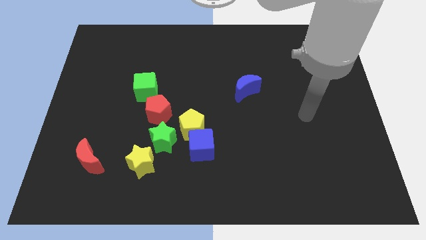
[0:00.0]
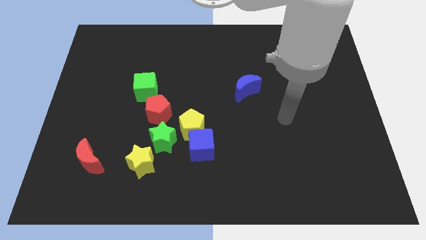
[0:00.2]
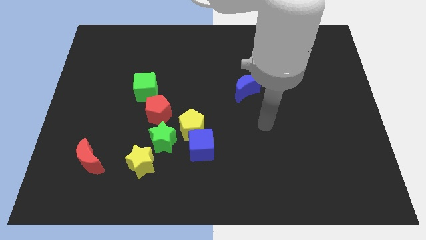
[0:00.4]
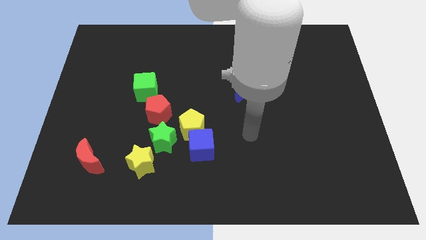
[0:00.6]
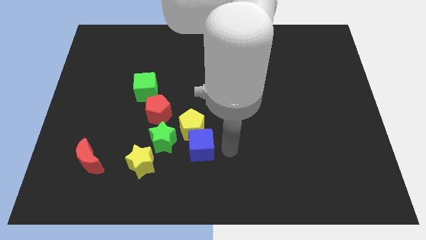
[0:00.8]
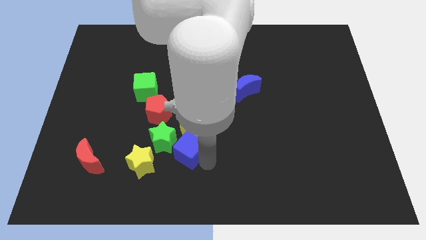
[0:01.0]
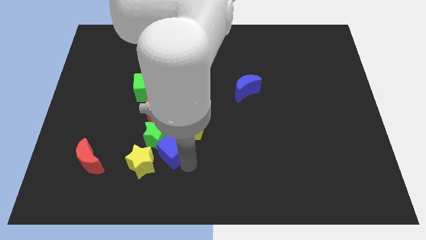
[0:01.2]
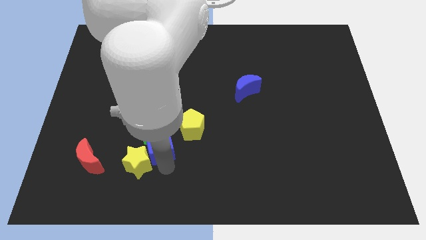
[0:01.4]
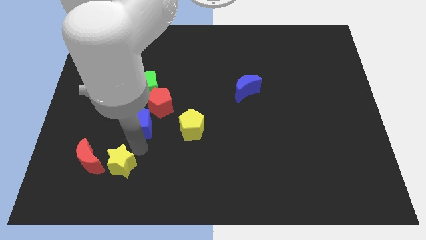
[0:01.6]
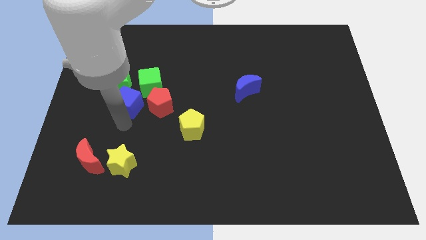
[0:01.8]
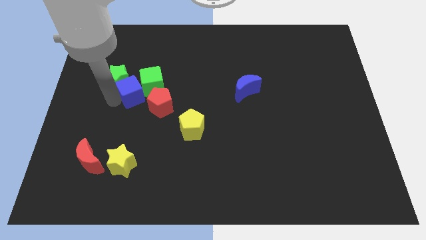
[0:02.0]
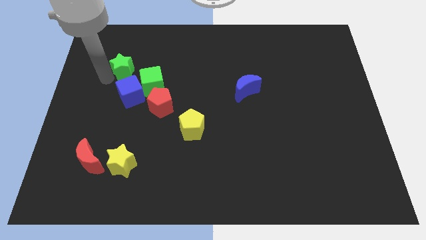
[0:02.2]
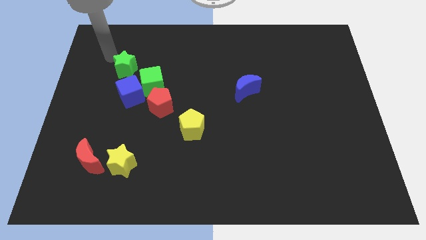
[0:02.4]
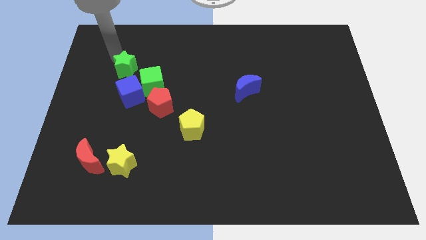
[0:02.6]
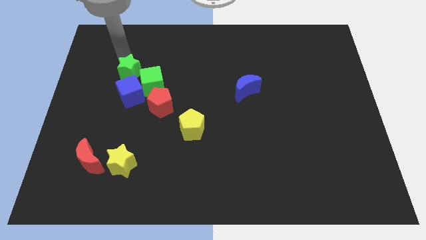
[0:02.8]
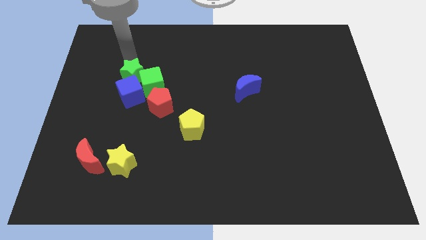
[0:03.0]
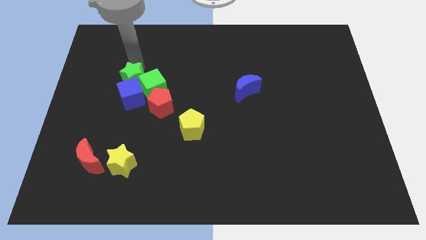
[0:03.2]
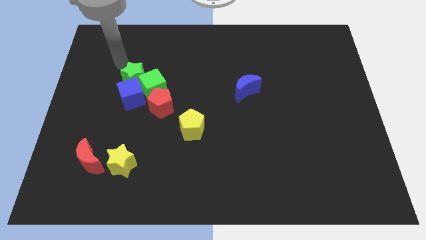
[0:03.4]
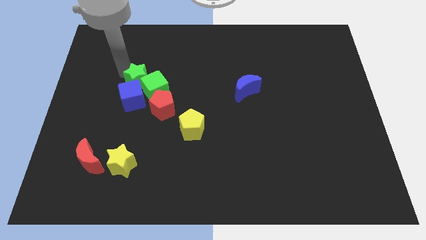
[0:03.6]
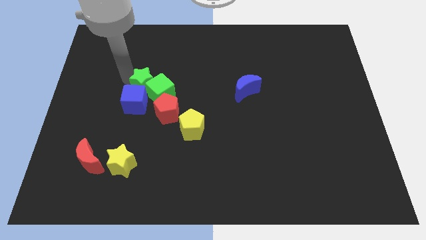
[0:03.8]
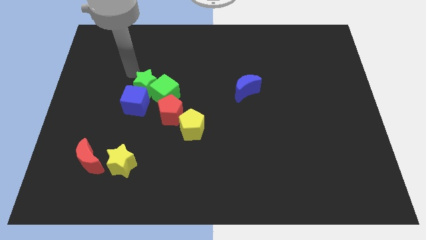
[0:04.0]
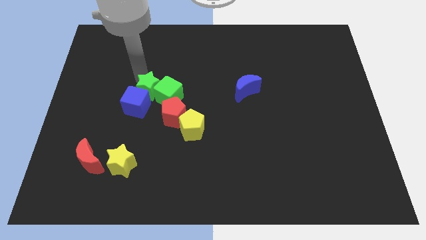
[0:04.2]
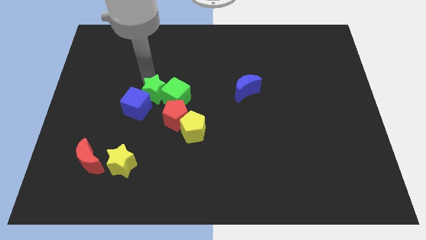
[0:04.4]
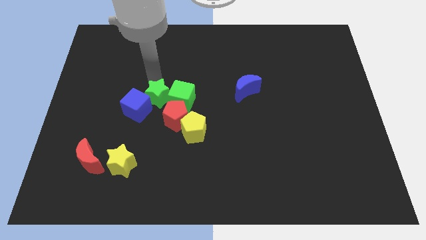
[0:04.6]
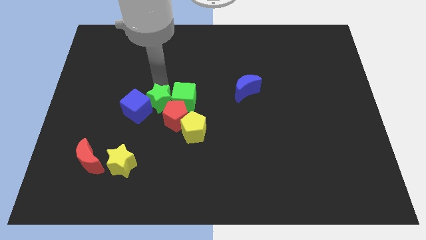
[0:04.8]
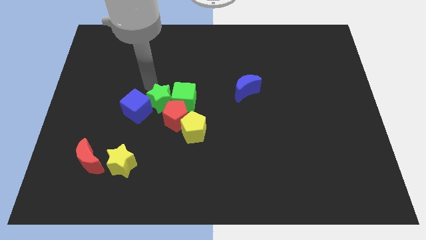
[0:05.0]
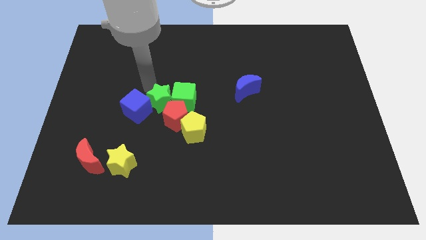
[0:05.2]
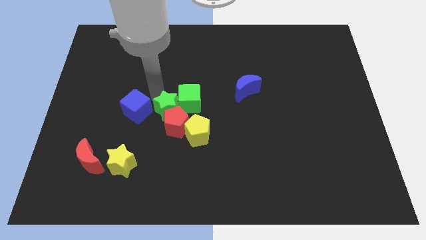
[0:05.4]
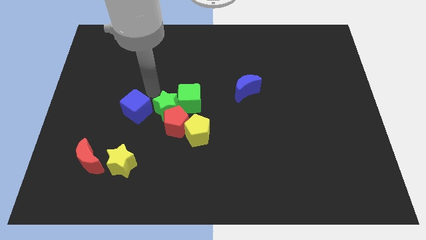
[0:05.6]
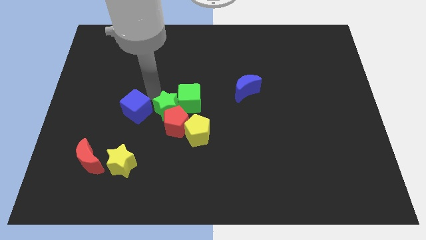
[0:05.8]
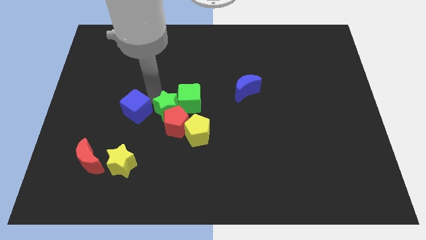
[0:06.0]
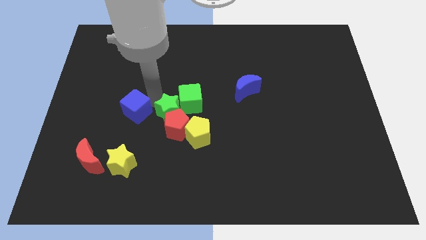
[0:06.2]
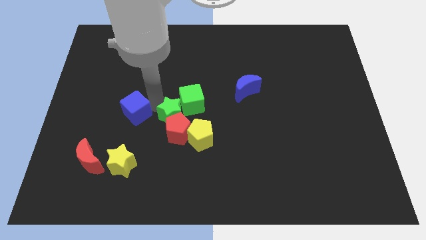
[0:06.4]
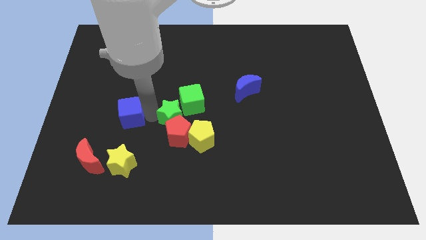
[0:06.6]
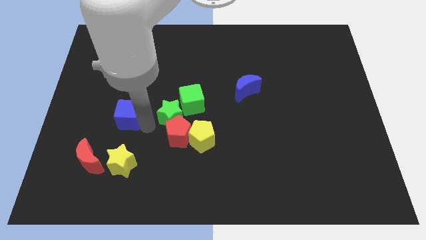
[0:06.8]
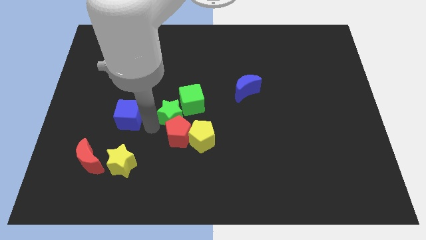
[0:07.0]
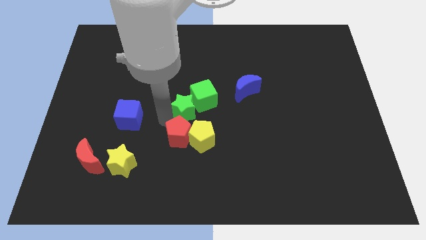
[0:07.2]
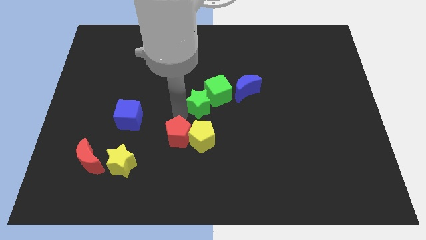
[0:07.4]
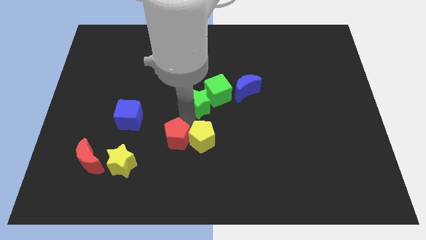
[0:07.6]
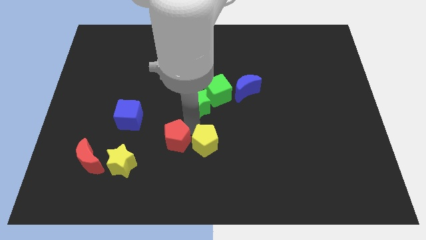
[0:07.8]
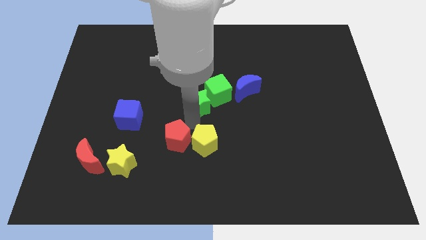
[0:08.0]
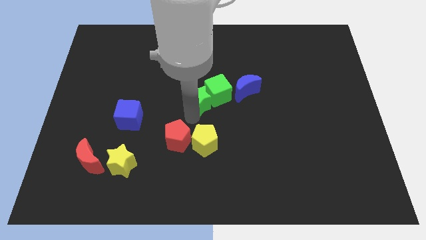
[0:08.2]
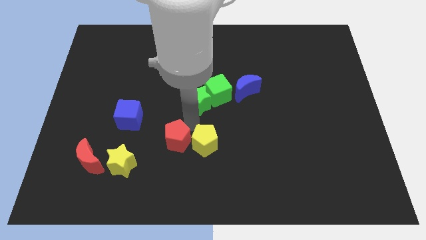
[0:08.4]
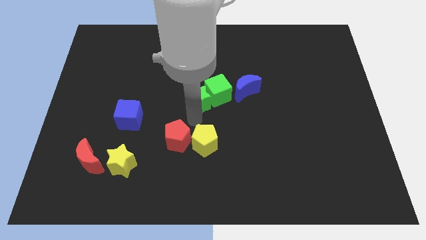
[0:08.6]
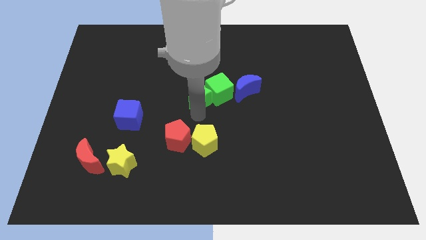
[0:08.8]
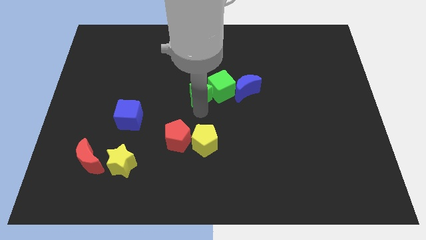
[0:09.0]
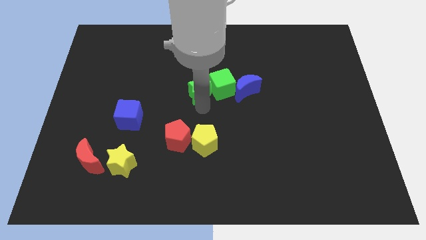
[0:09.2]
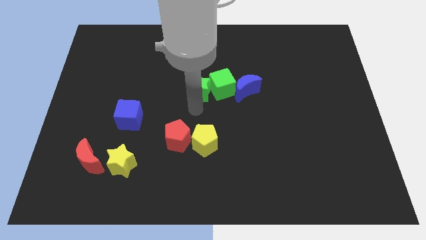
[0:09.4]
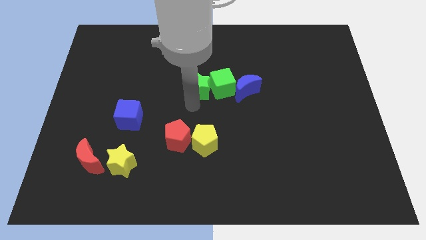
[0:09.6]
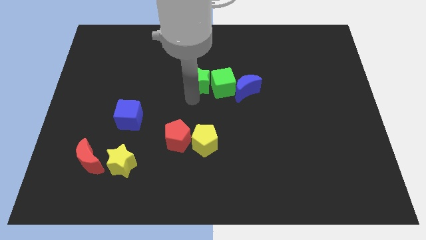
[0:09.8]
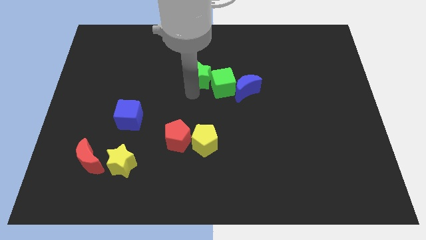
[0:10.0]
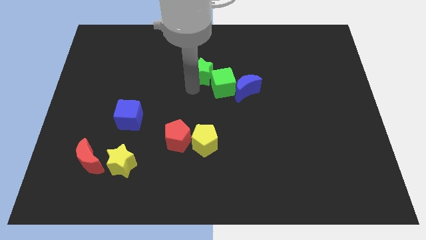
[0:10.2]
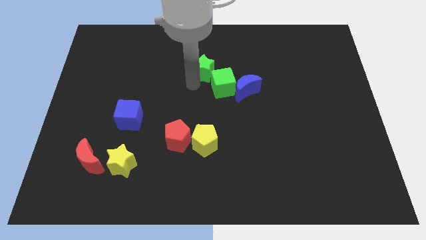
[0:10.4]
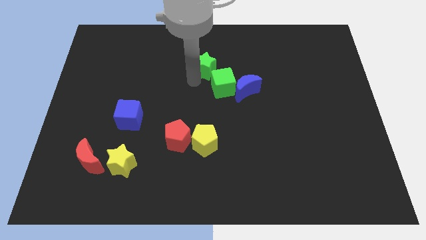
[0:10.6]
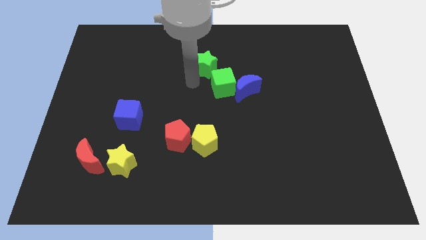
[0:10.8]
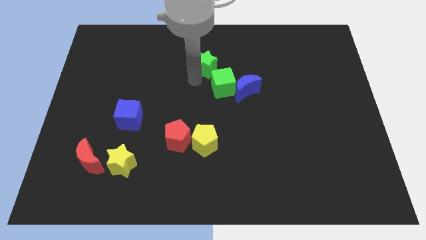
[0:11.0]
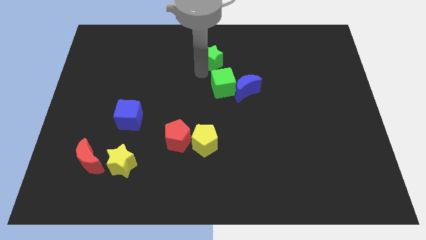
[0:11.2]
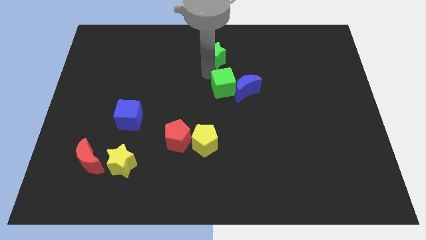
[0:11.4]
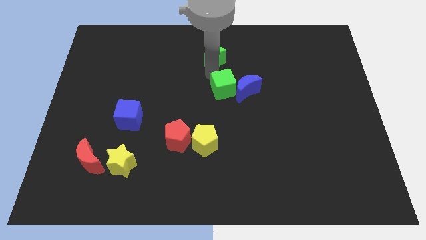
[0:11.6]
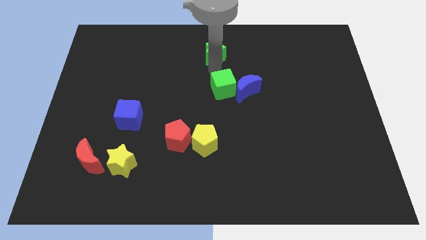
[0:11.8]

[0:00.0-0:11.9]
slide the green star to the towards your base
